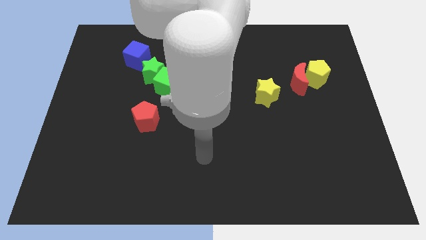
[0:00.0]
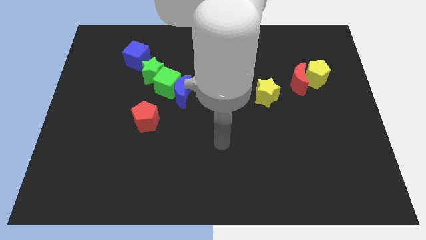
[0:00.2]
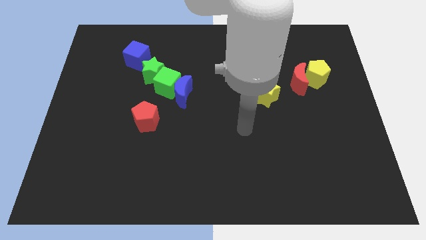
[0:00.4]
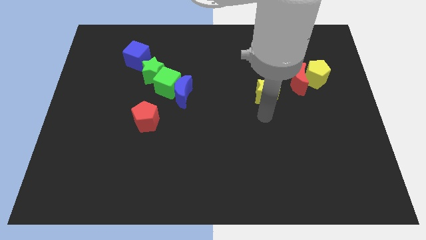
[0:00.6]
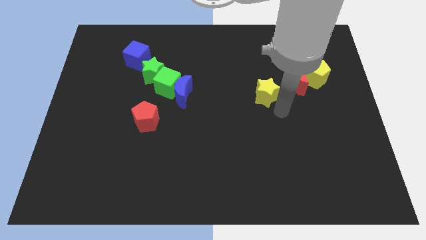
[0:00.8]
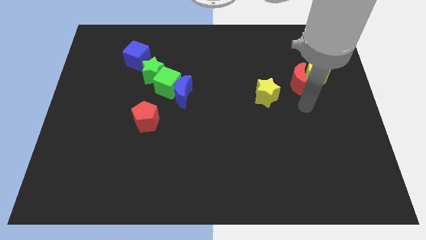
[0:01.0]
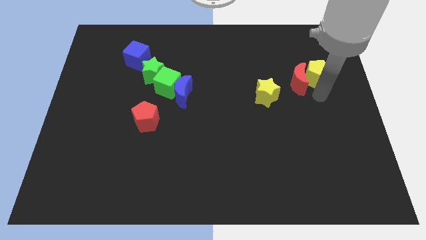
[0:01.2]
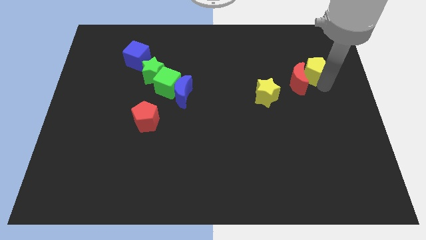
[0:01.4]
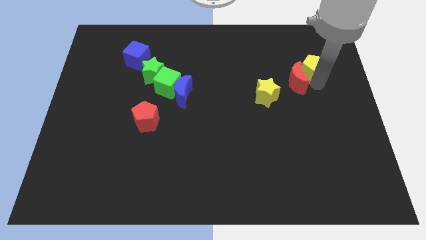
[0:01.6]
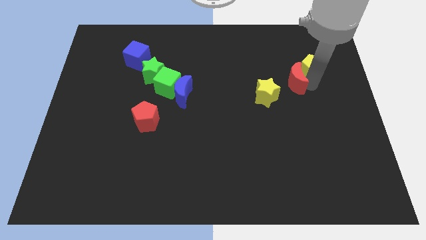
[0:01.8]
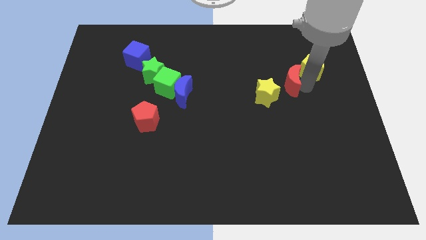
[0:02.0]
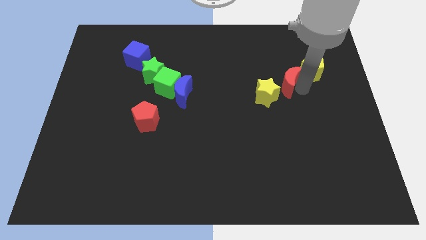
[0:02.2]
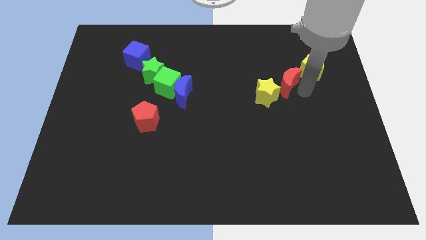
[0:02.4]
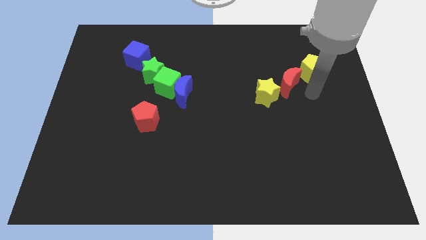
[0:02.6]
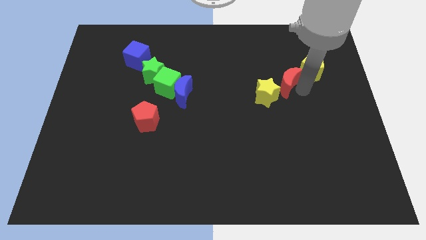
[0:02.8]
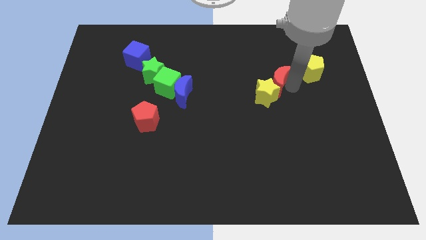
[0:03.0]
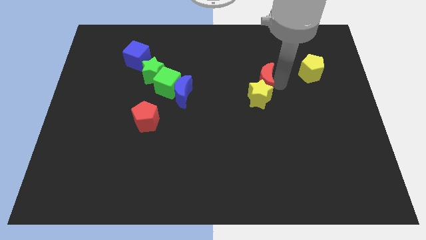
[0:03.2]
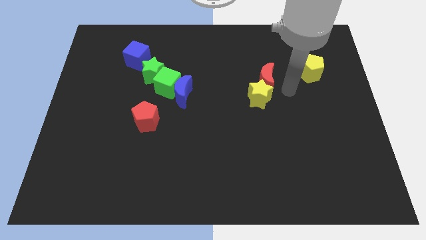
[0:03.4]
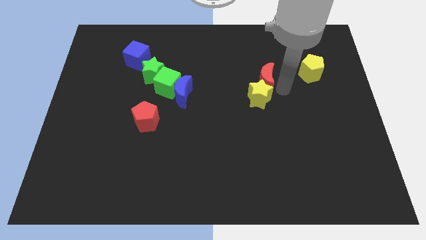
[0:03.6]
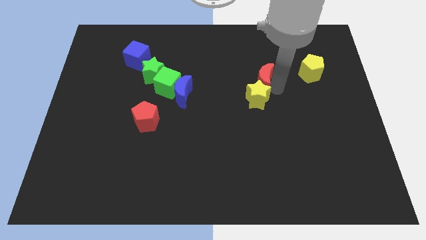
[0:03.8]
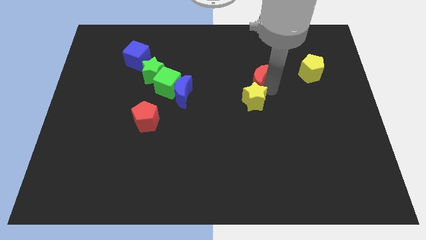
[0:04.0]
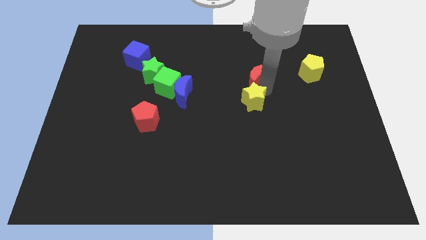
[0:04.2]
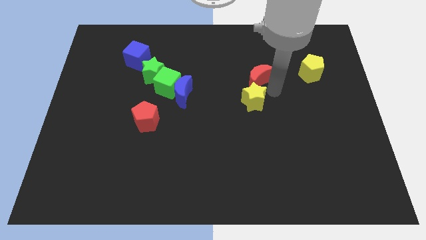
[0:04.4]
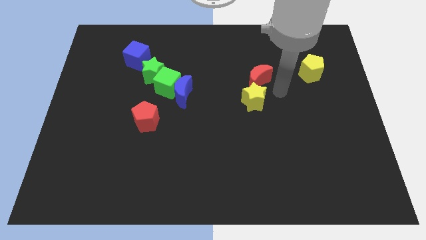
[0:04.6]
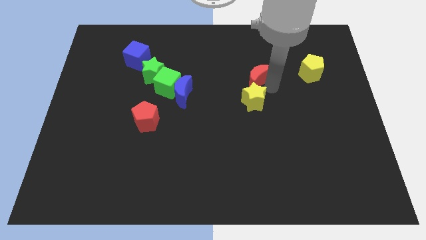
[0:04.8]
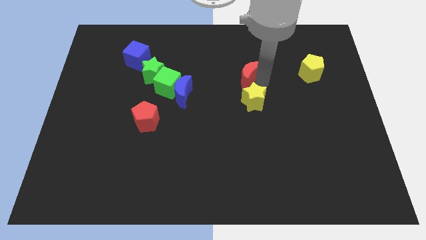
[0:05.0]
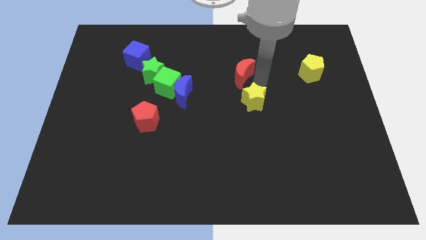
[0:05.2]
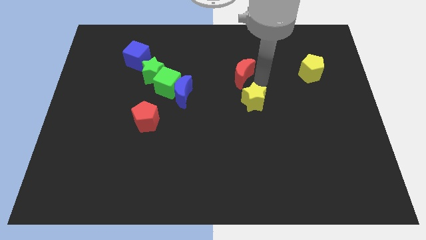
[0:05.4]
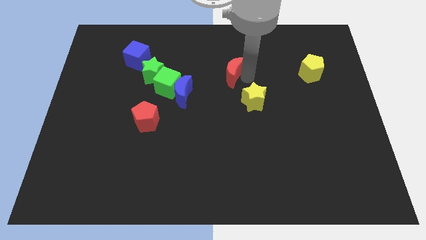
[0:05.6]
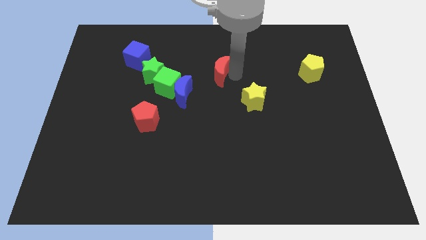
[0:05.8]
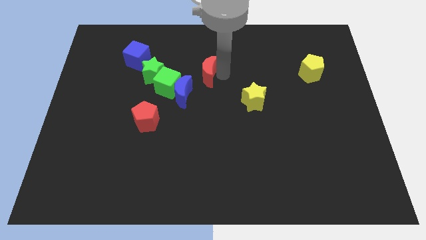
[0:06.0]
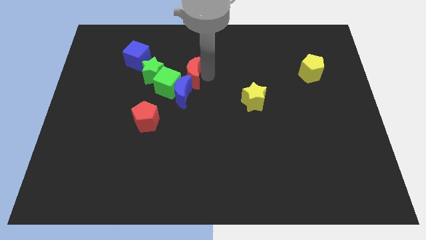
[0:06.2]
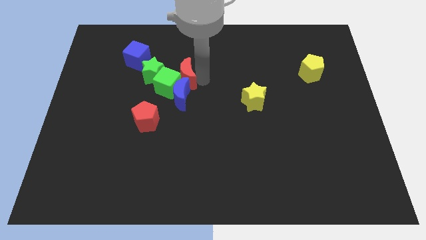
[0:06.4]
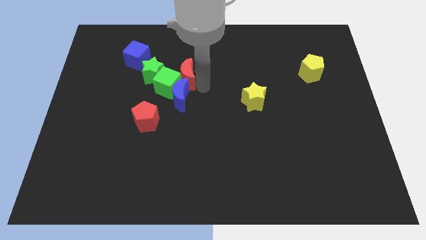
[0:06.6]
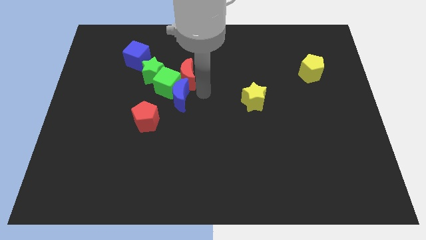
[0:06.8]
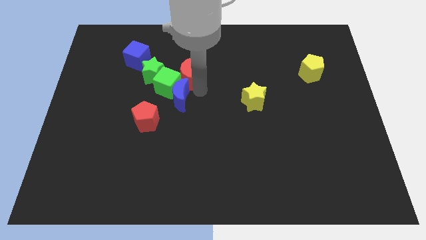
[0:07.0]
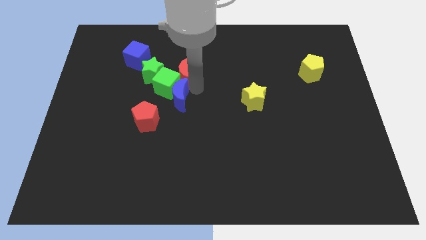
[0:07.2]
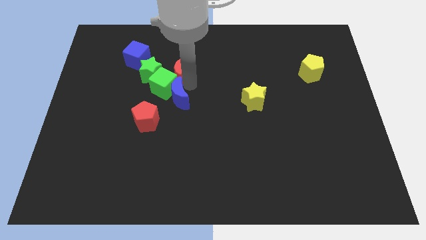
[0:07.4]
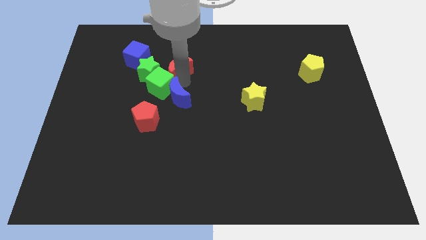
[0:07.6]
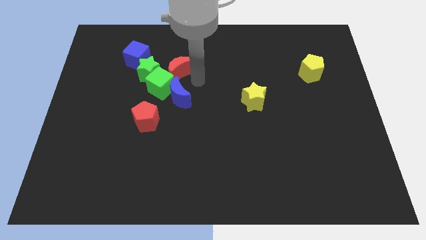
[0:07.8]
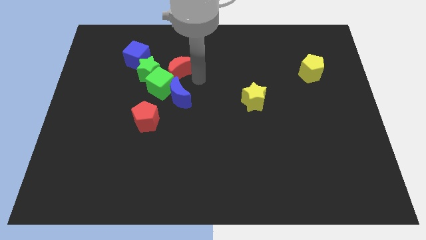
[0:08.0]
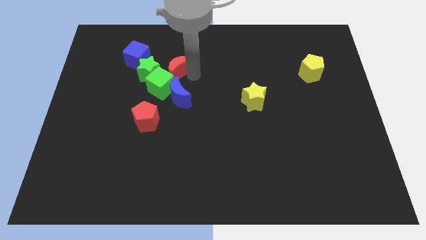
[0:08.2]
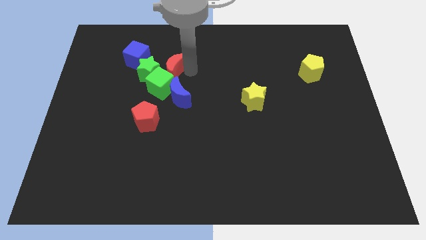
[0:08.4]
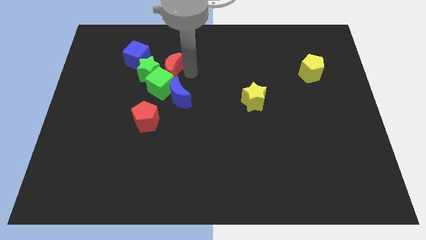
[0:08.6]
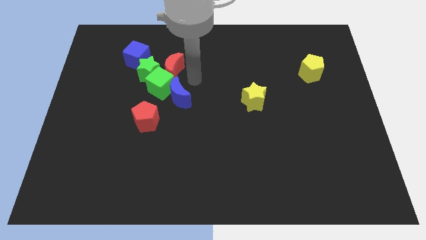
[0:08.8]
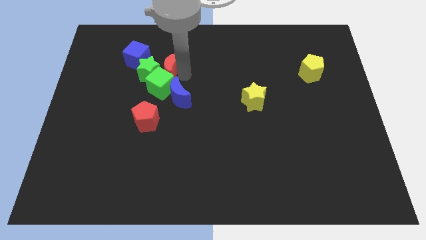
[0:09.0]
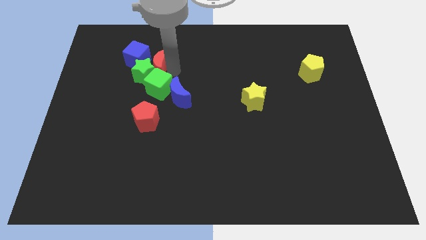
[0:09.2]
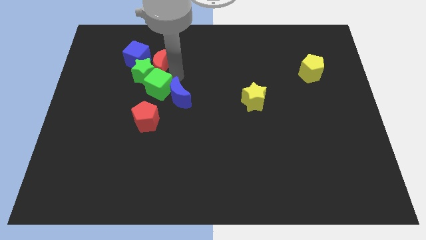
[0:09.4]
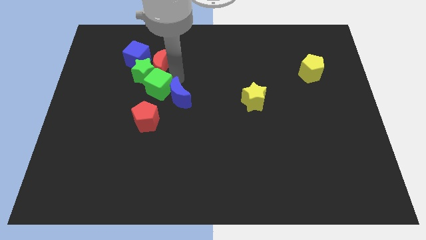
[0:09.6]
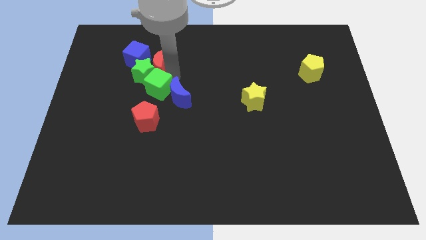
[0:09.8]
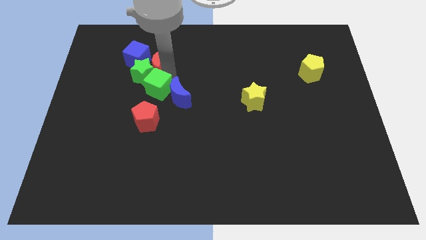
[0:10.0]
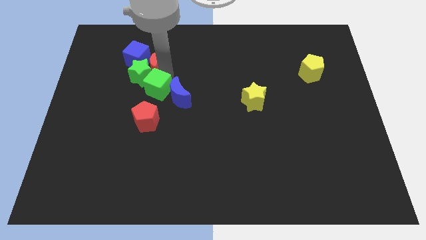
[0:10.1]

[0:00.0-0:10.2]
slide the red moon close to the blue cube

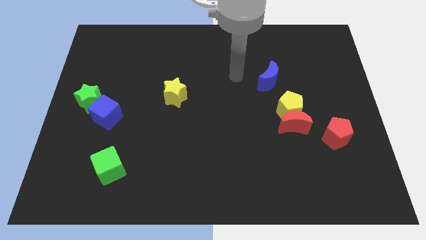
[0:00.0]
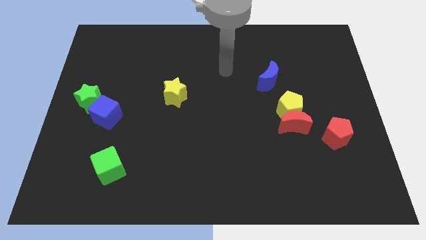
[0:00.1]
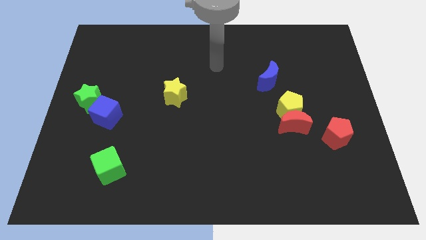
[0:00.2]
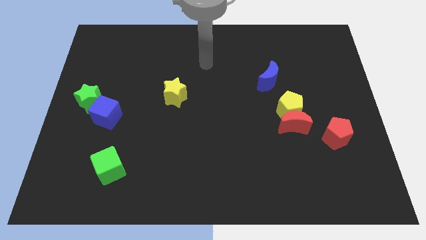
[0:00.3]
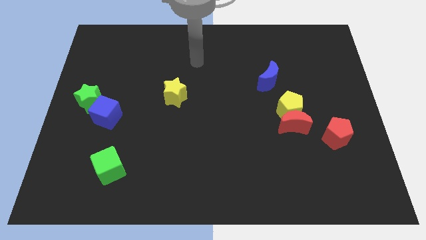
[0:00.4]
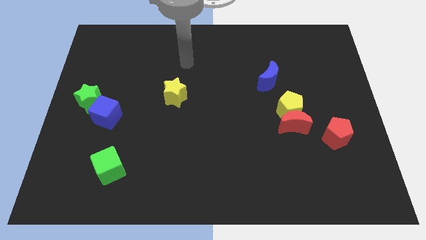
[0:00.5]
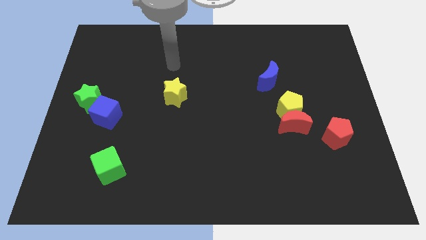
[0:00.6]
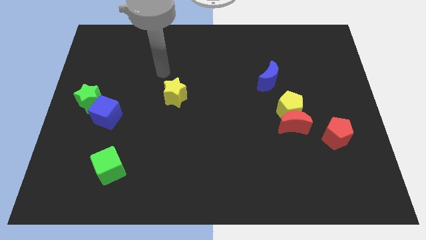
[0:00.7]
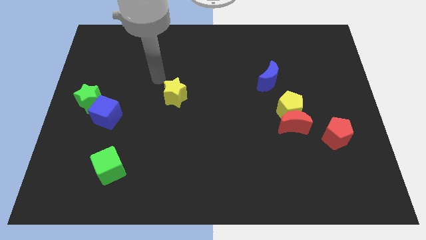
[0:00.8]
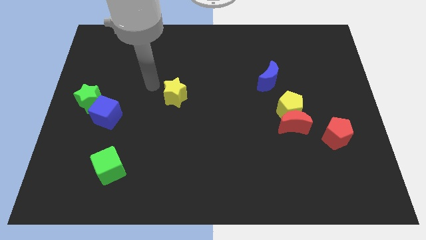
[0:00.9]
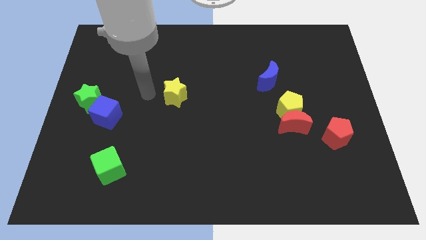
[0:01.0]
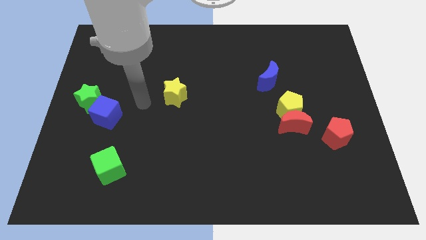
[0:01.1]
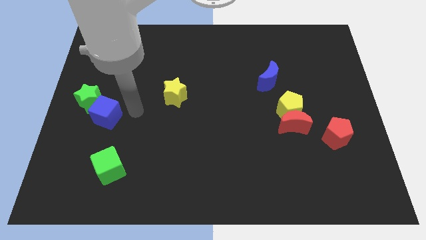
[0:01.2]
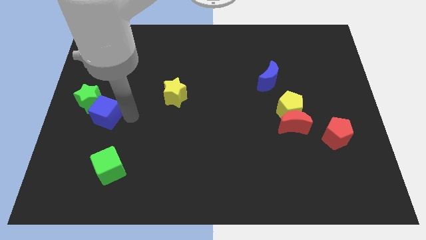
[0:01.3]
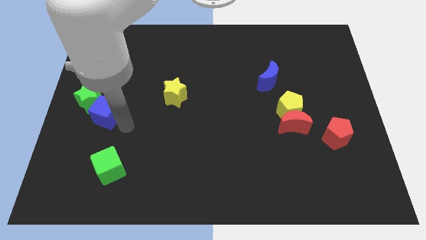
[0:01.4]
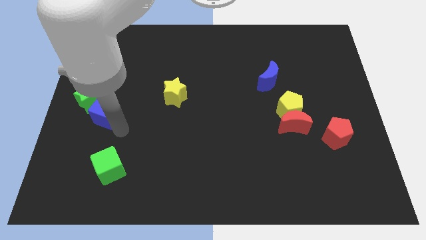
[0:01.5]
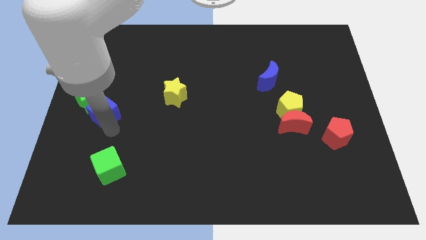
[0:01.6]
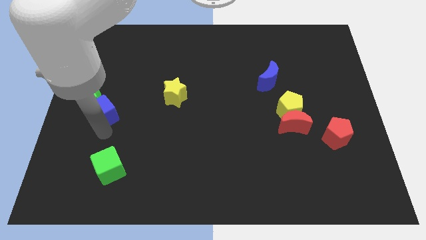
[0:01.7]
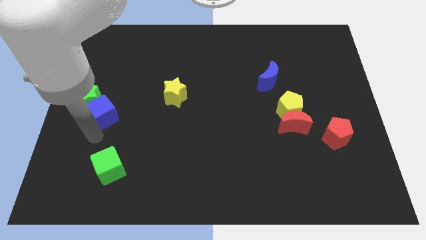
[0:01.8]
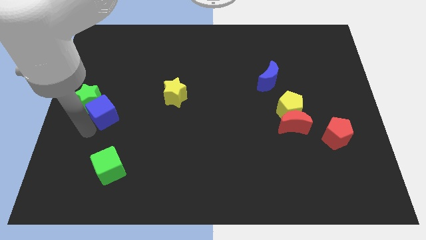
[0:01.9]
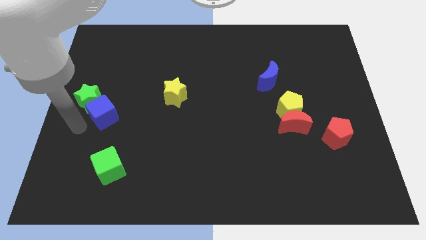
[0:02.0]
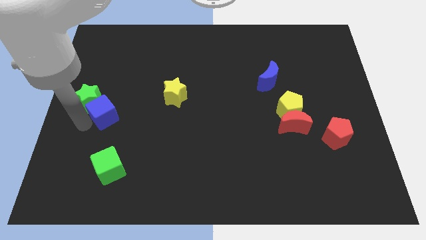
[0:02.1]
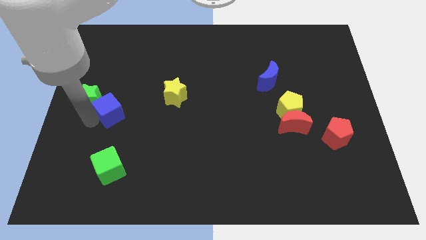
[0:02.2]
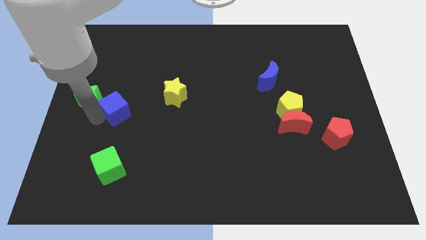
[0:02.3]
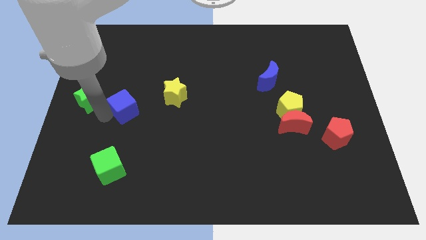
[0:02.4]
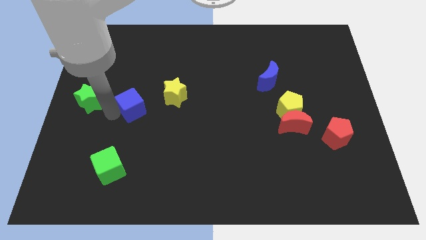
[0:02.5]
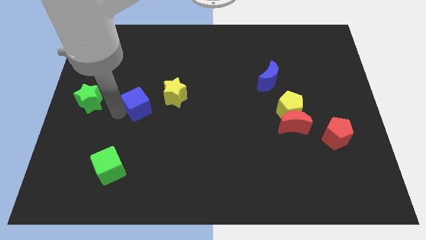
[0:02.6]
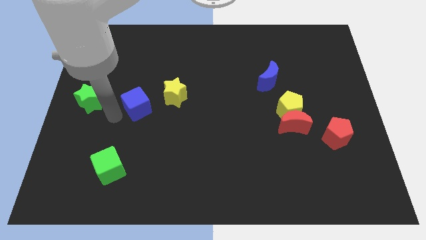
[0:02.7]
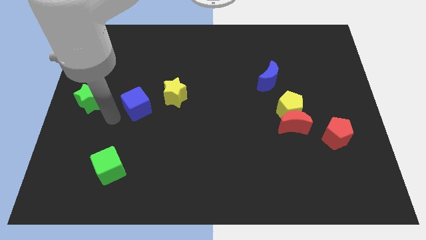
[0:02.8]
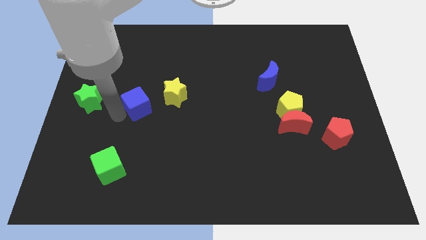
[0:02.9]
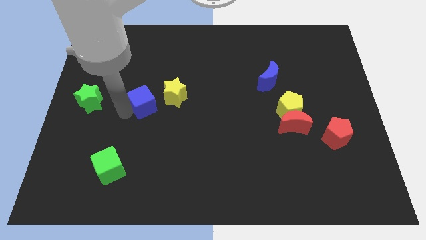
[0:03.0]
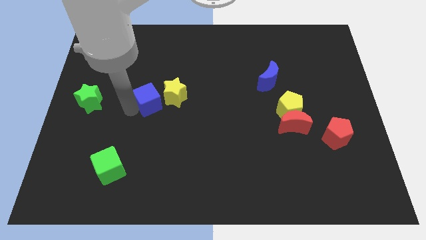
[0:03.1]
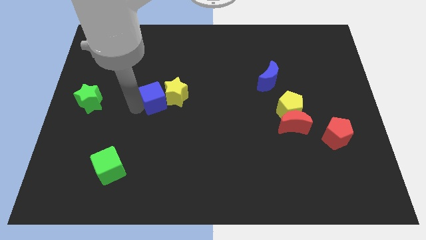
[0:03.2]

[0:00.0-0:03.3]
slide the blue cube to the yellow star

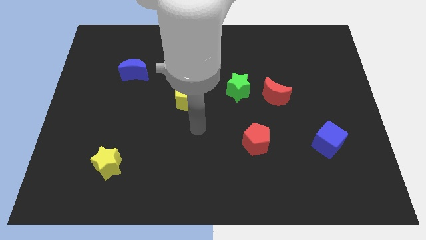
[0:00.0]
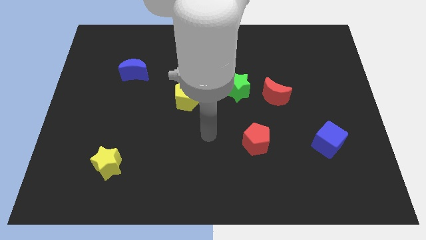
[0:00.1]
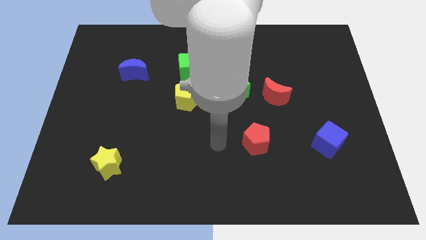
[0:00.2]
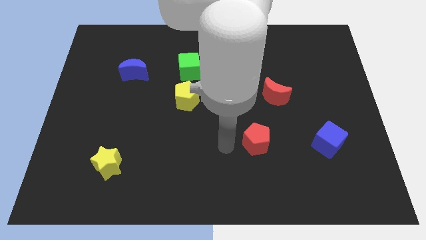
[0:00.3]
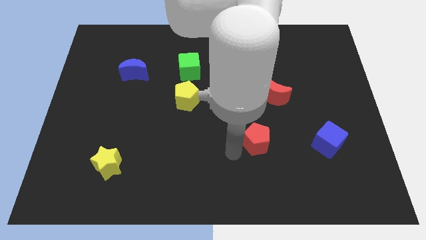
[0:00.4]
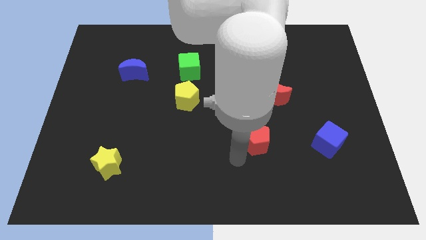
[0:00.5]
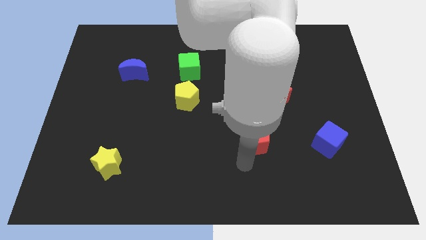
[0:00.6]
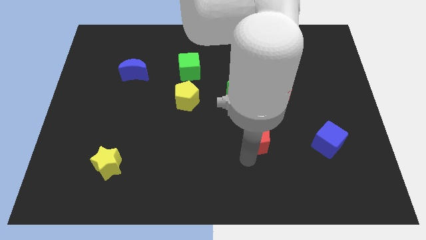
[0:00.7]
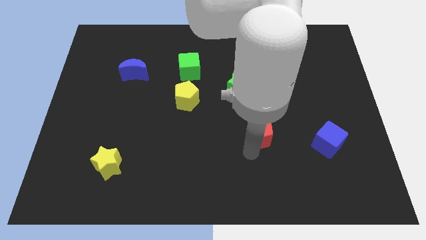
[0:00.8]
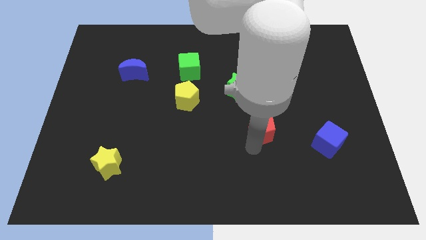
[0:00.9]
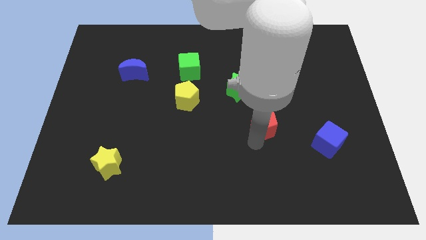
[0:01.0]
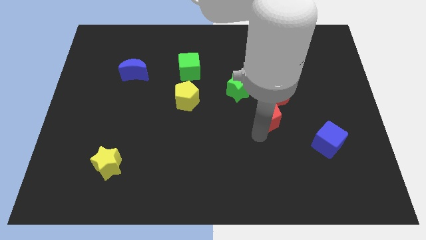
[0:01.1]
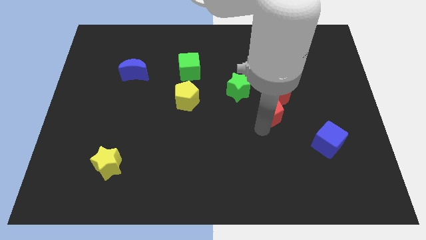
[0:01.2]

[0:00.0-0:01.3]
move the red pentagon next to the red moon
